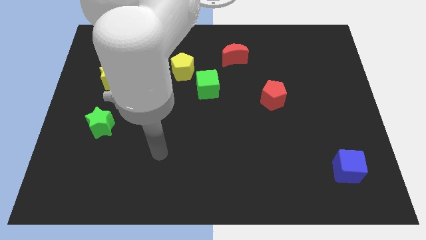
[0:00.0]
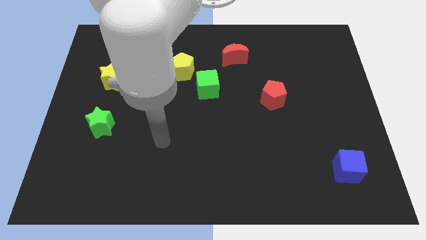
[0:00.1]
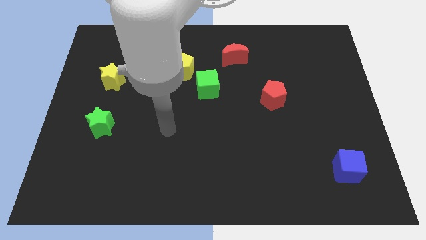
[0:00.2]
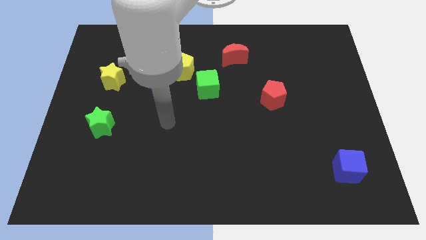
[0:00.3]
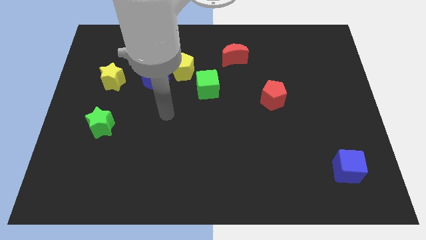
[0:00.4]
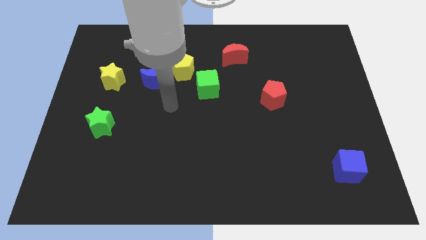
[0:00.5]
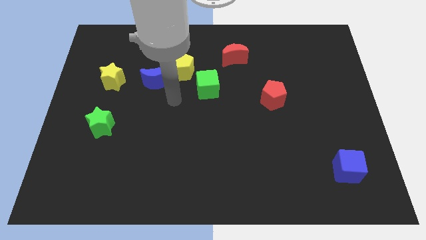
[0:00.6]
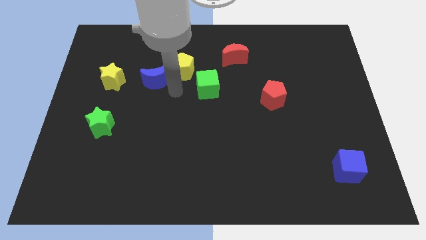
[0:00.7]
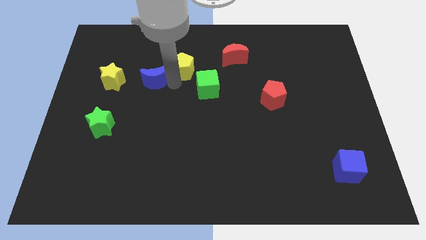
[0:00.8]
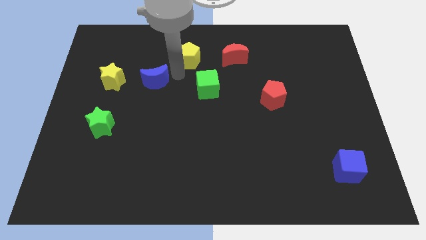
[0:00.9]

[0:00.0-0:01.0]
move the blue moon away from the yellow pentagon

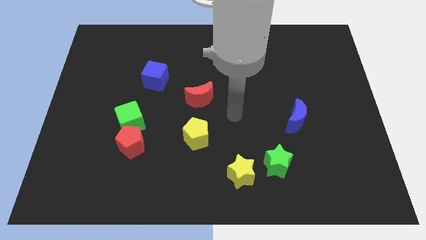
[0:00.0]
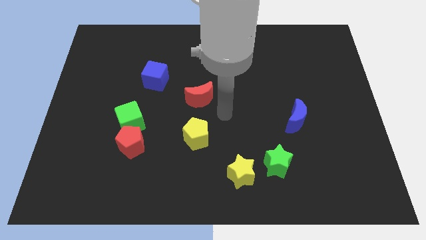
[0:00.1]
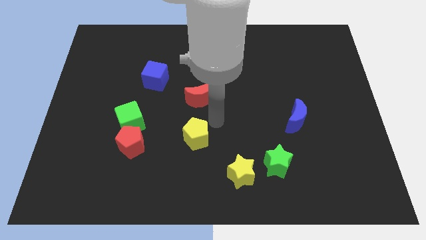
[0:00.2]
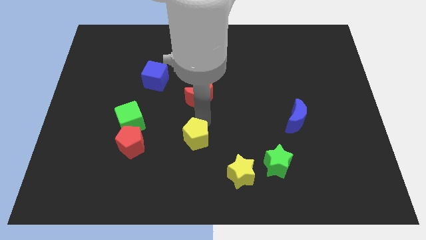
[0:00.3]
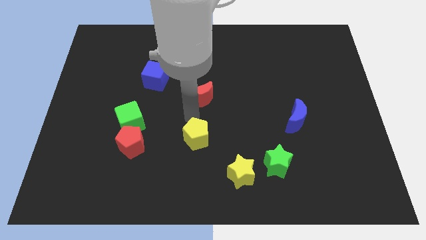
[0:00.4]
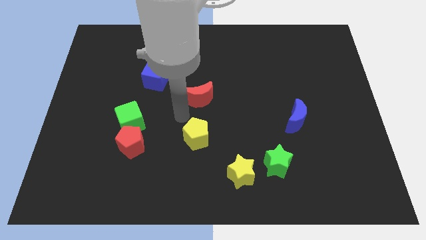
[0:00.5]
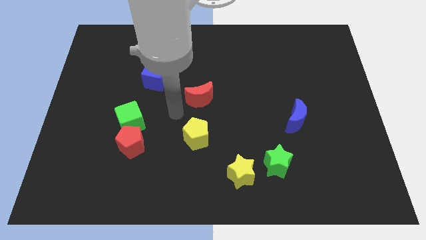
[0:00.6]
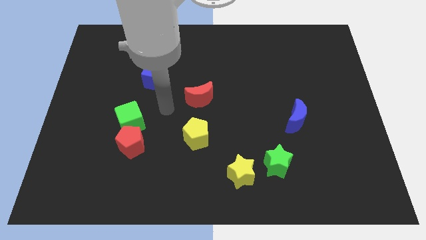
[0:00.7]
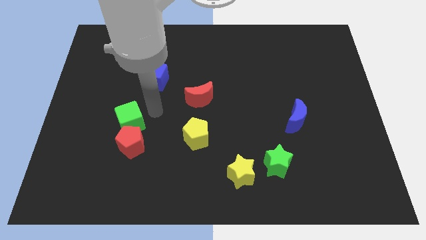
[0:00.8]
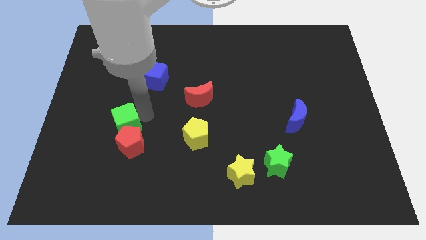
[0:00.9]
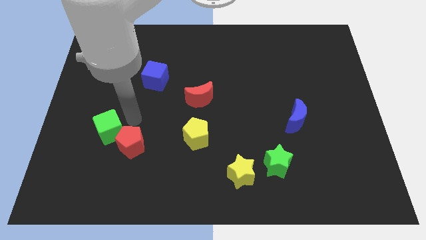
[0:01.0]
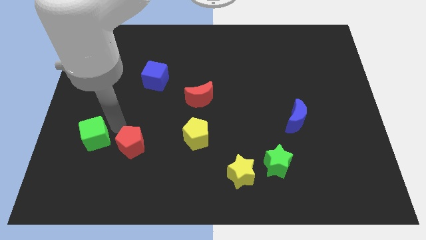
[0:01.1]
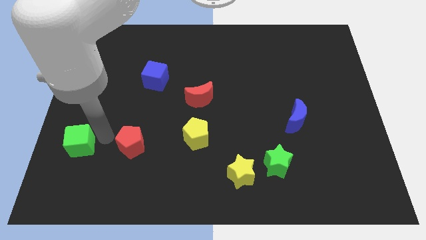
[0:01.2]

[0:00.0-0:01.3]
move the red pentagon away from the green cube

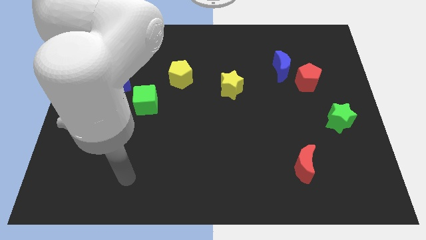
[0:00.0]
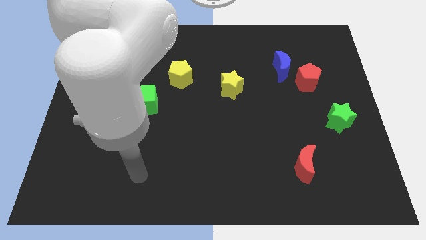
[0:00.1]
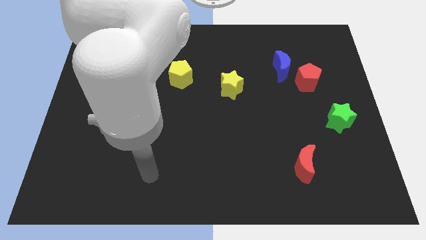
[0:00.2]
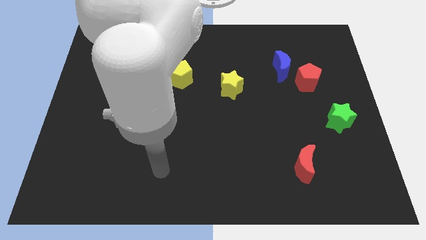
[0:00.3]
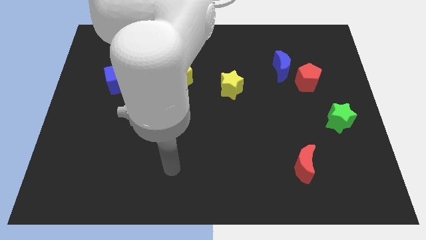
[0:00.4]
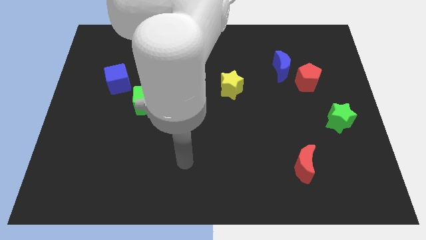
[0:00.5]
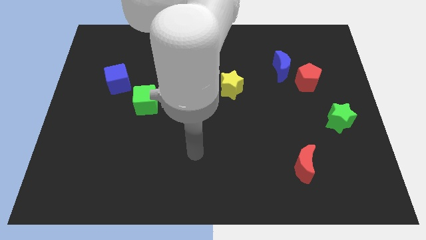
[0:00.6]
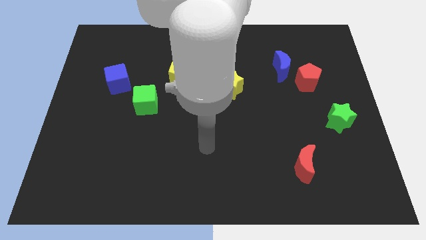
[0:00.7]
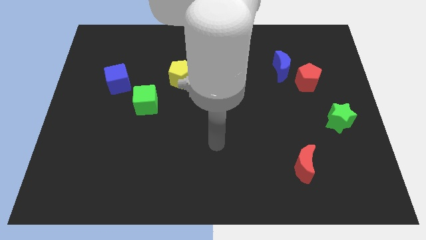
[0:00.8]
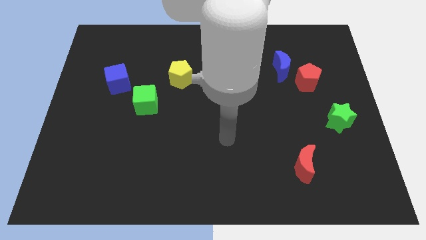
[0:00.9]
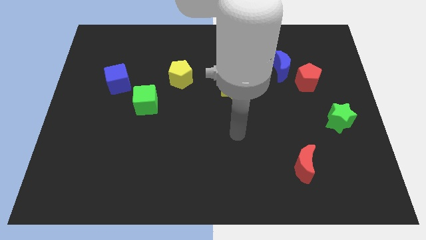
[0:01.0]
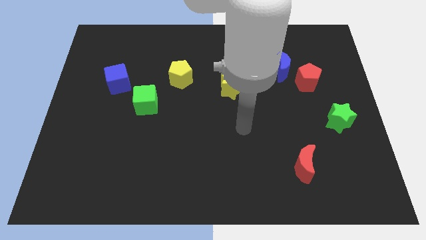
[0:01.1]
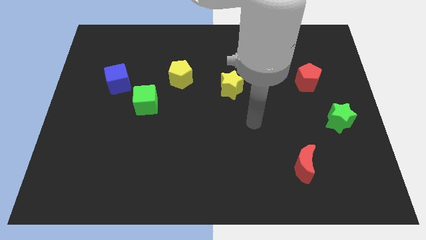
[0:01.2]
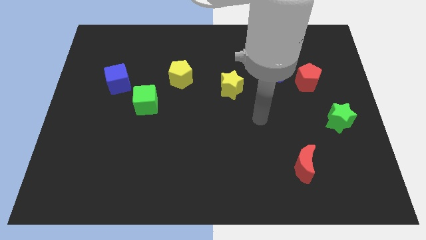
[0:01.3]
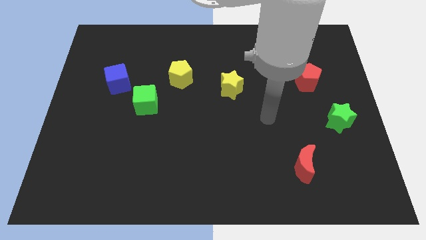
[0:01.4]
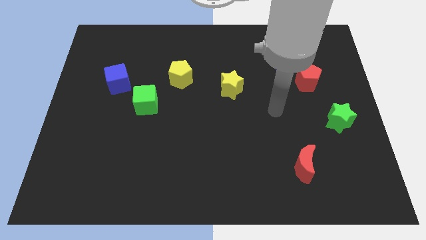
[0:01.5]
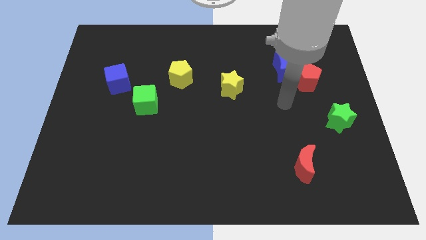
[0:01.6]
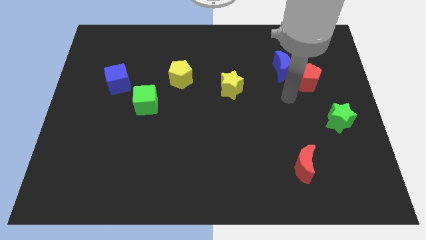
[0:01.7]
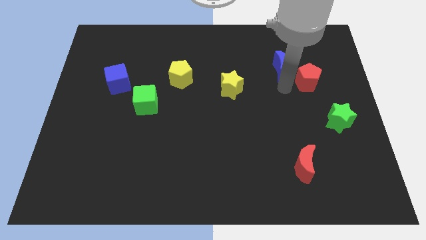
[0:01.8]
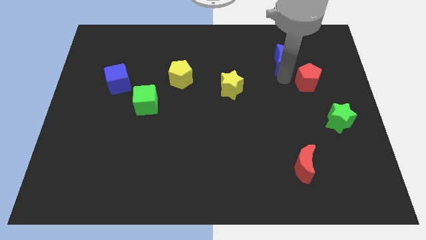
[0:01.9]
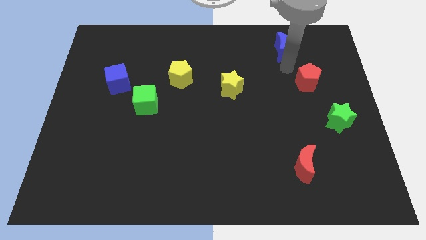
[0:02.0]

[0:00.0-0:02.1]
pull the red pentagon apart from the blue moon

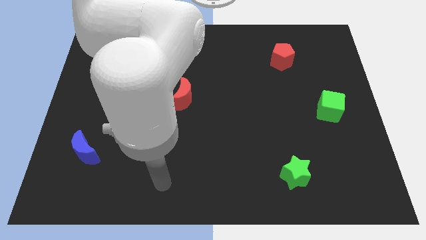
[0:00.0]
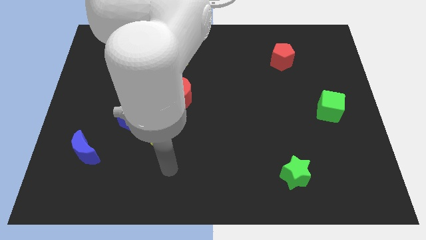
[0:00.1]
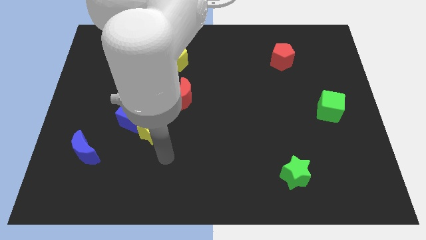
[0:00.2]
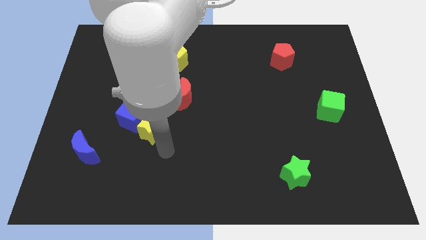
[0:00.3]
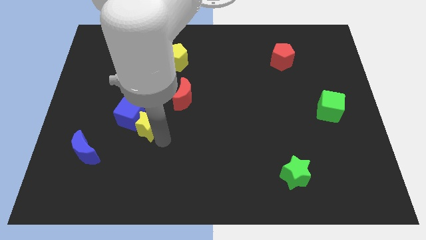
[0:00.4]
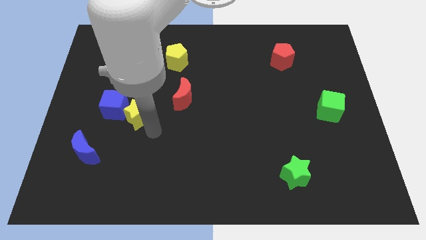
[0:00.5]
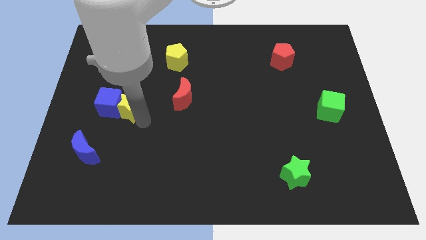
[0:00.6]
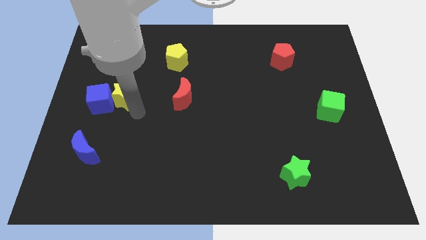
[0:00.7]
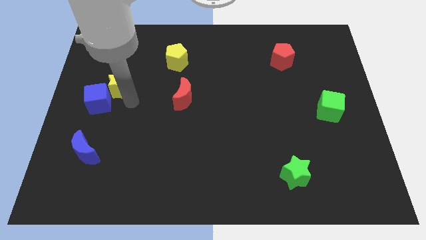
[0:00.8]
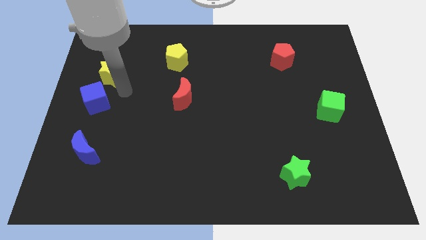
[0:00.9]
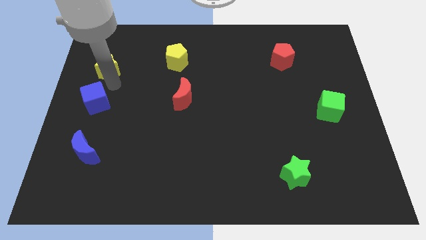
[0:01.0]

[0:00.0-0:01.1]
separate the blue cube from the yellow star

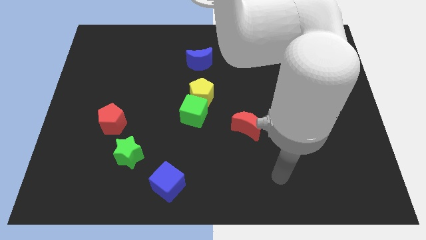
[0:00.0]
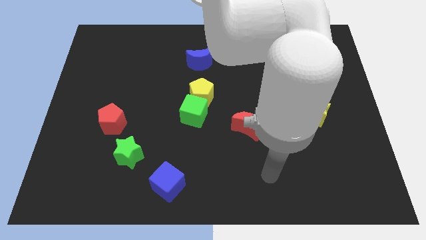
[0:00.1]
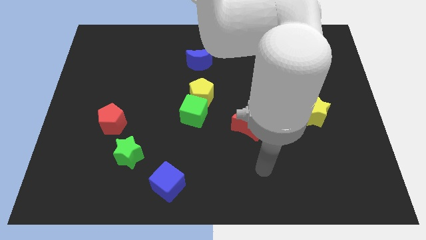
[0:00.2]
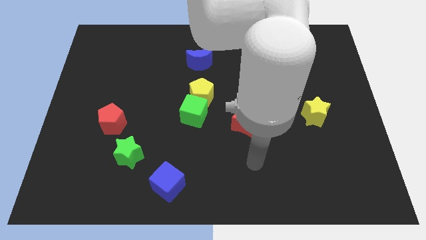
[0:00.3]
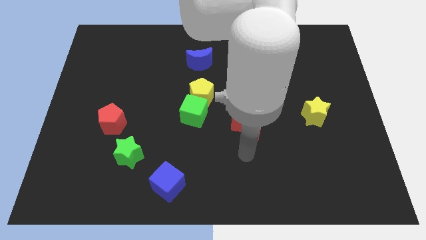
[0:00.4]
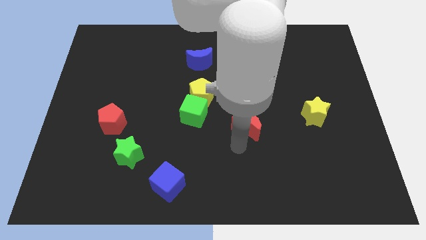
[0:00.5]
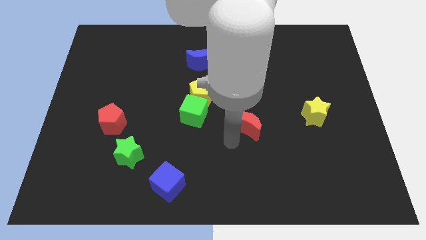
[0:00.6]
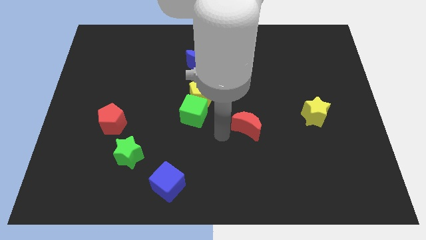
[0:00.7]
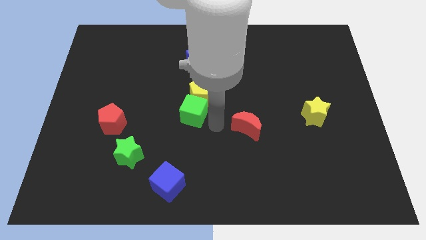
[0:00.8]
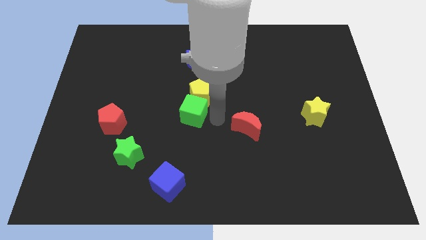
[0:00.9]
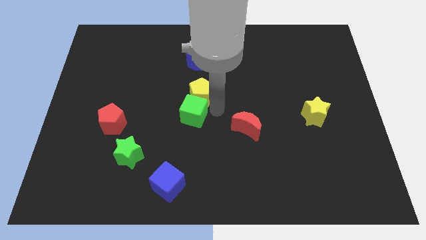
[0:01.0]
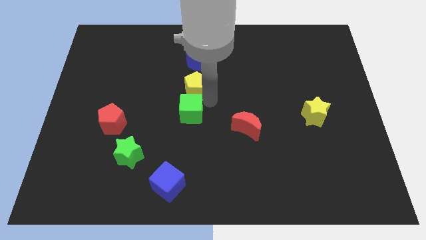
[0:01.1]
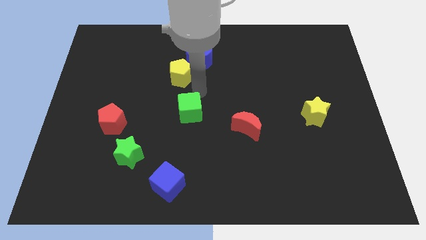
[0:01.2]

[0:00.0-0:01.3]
separate the green cube from the yellow pentagon

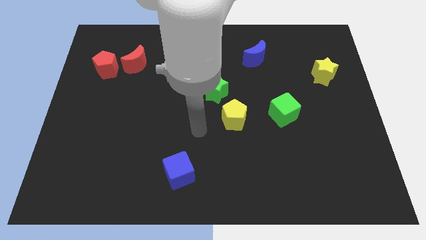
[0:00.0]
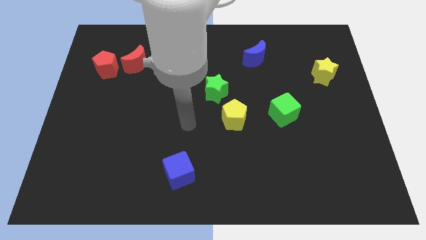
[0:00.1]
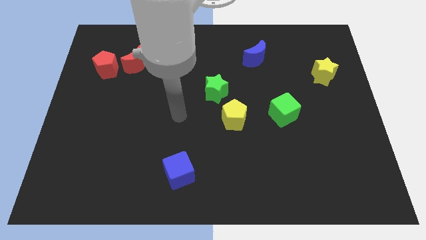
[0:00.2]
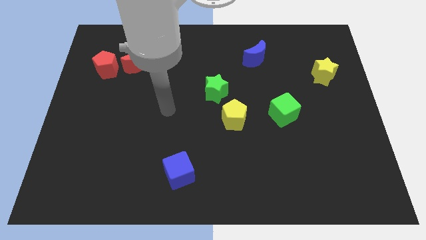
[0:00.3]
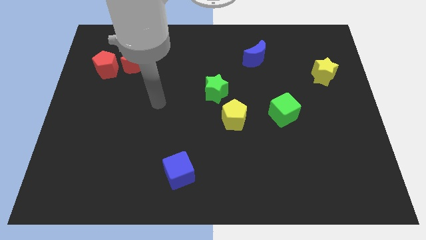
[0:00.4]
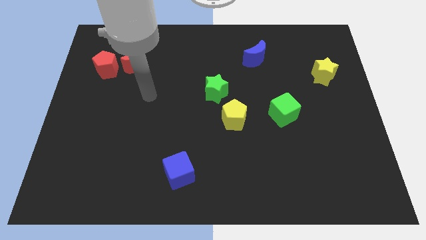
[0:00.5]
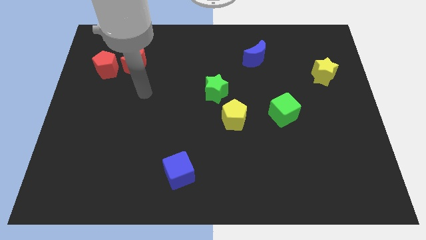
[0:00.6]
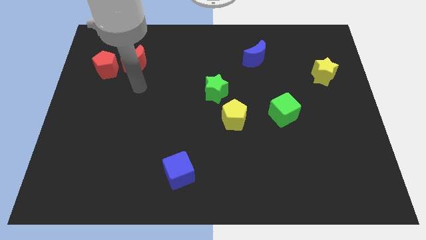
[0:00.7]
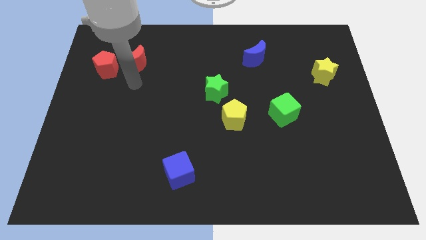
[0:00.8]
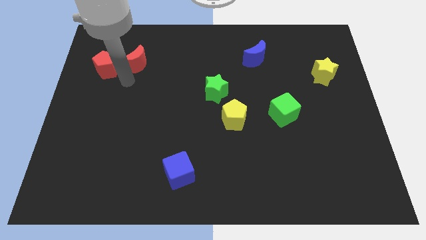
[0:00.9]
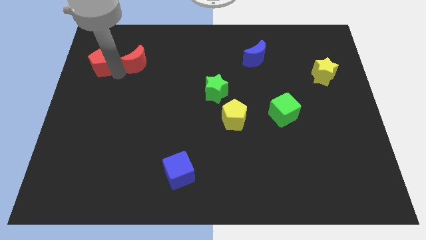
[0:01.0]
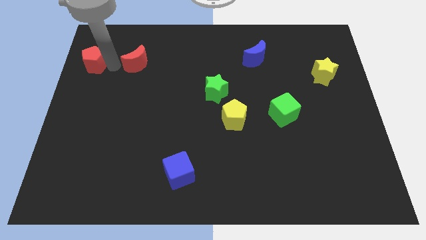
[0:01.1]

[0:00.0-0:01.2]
pull the red moon apart from the red pentagon

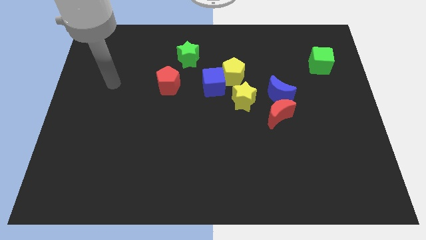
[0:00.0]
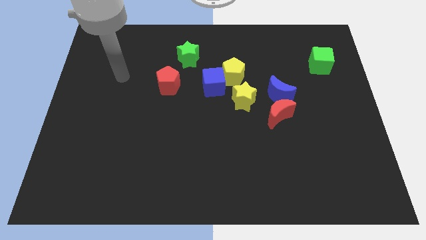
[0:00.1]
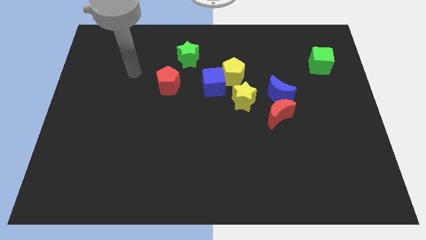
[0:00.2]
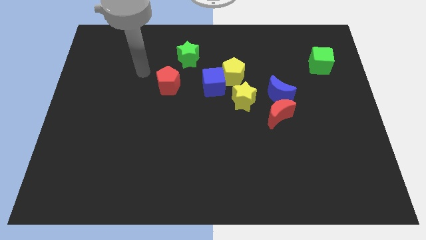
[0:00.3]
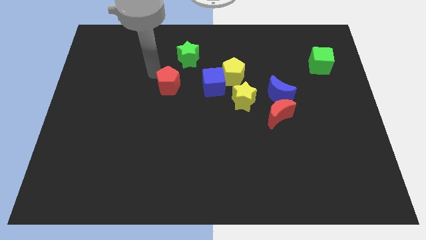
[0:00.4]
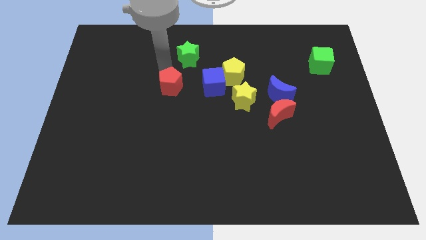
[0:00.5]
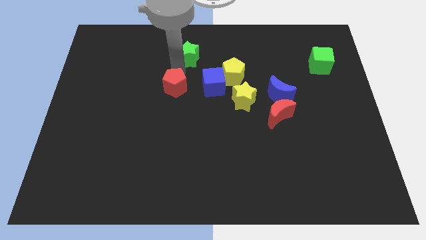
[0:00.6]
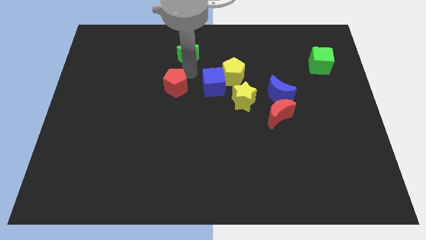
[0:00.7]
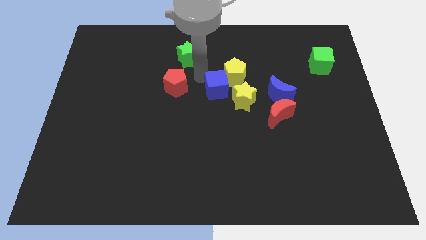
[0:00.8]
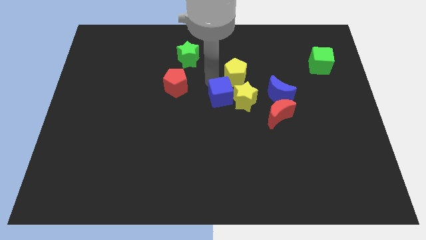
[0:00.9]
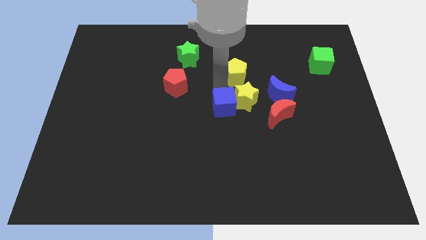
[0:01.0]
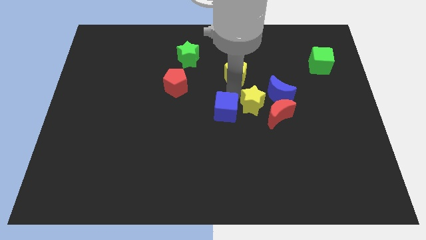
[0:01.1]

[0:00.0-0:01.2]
pull the yellow pentagon apart from the blue cube and yellow star

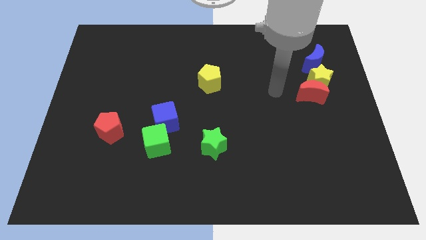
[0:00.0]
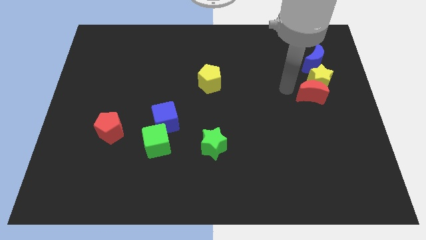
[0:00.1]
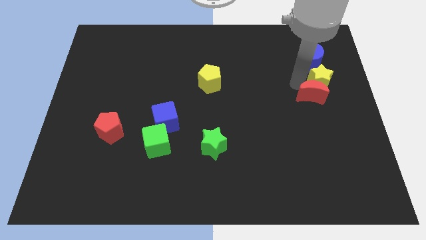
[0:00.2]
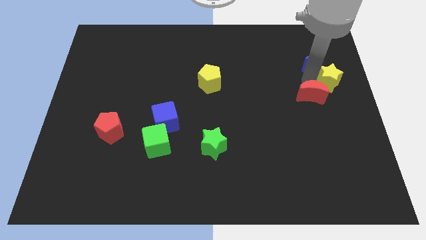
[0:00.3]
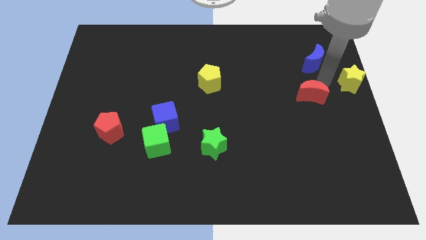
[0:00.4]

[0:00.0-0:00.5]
move the red moon away from the yellow star
